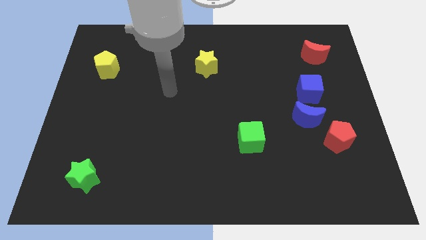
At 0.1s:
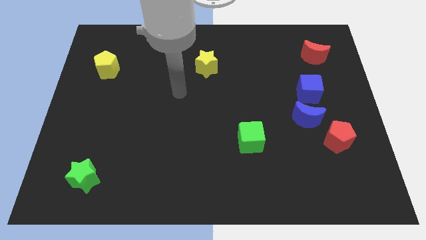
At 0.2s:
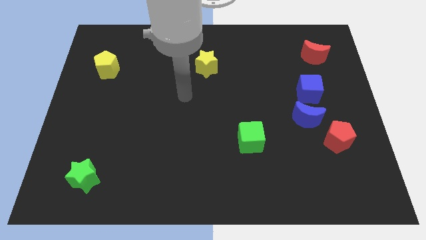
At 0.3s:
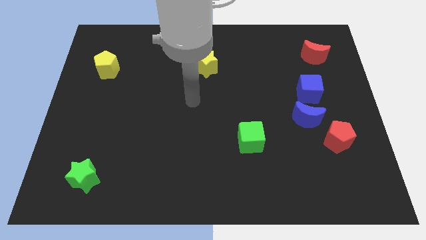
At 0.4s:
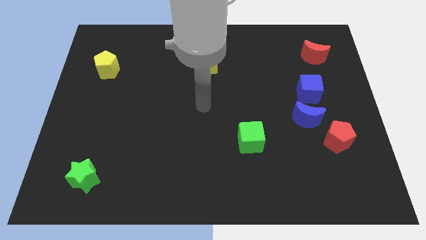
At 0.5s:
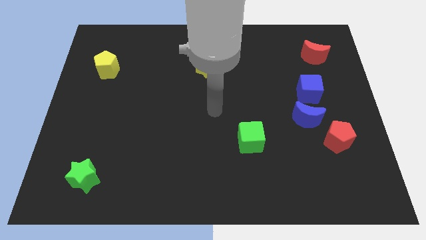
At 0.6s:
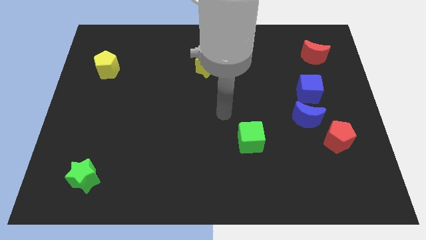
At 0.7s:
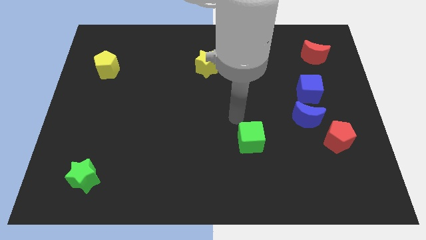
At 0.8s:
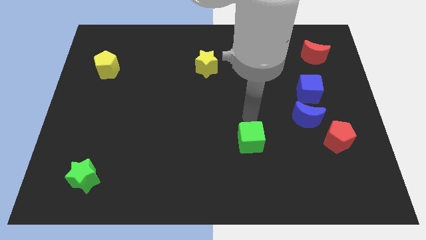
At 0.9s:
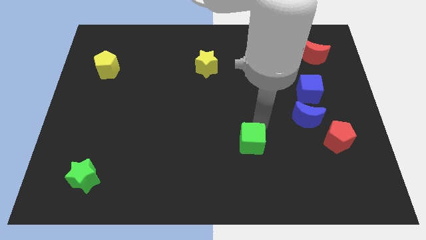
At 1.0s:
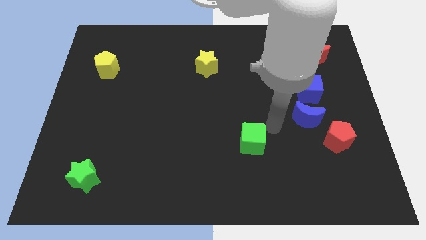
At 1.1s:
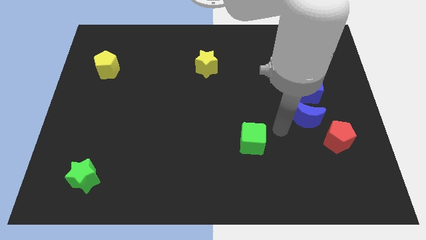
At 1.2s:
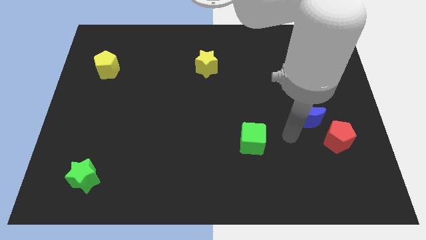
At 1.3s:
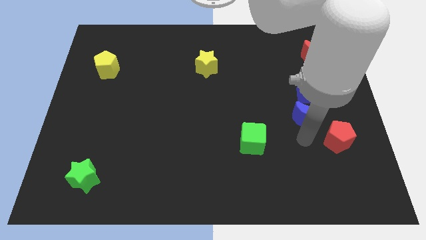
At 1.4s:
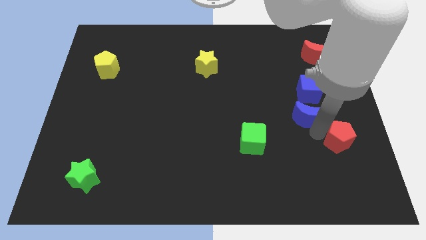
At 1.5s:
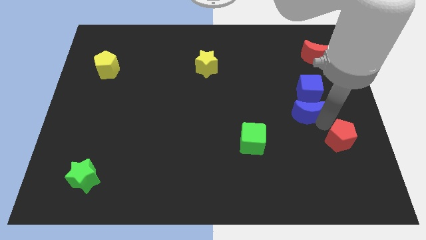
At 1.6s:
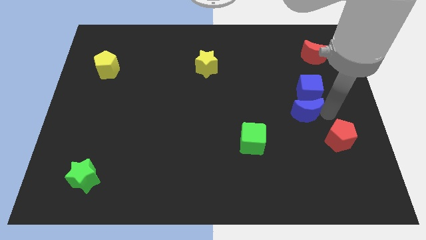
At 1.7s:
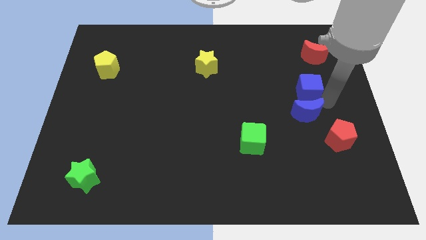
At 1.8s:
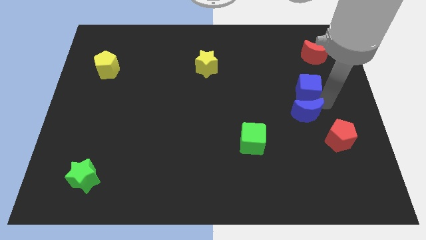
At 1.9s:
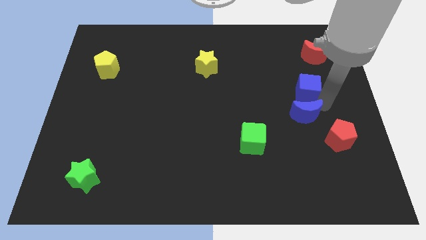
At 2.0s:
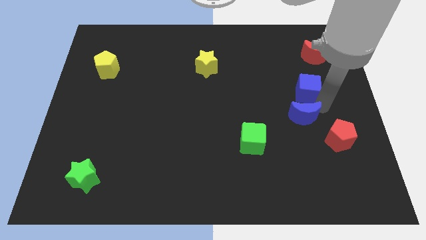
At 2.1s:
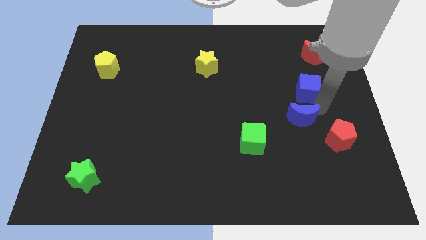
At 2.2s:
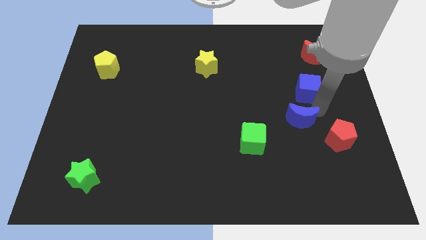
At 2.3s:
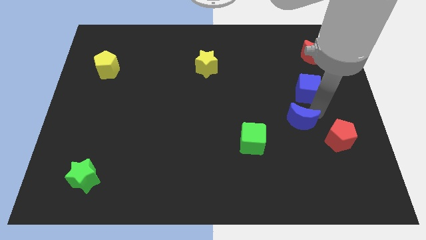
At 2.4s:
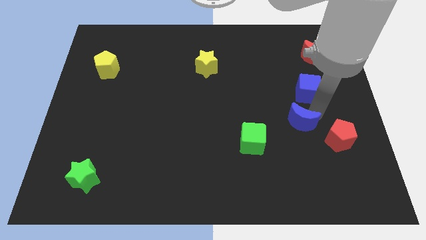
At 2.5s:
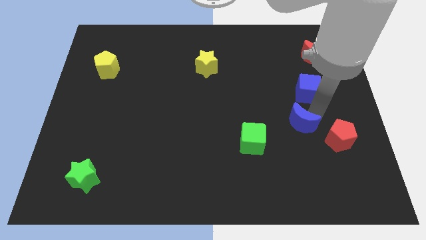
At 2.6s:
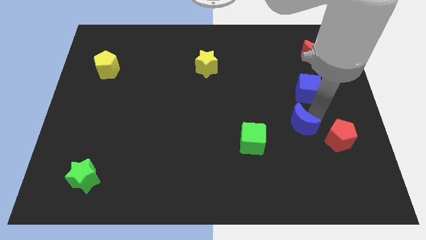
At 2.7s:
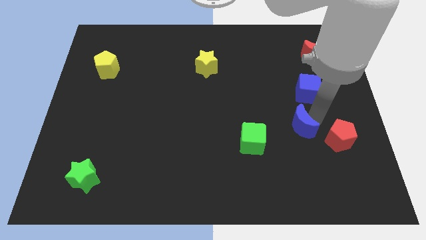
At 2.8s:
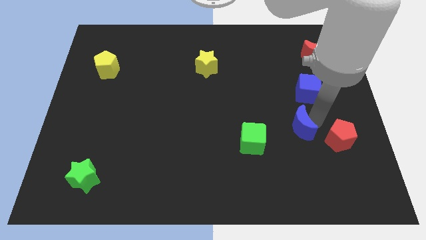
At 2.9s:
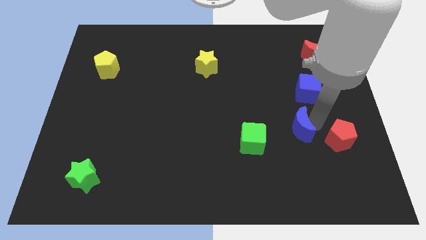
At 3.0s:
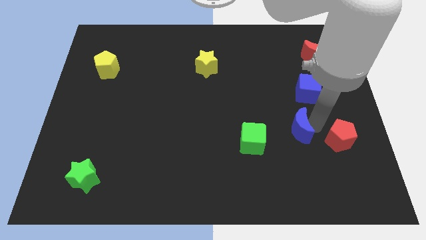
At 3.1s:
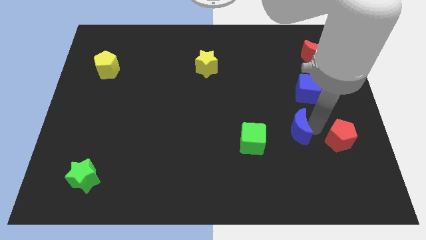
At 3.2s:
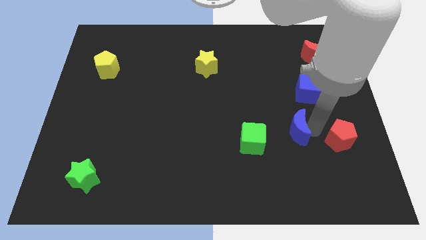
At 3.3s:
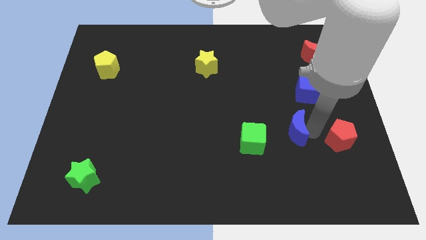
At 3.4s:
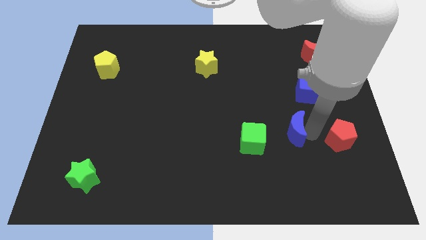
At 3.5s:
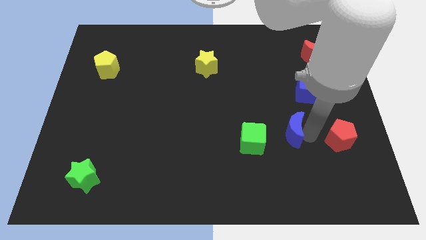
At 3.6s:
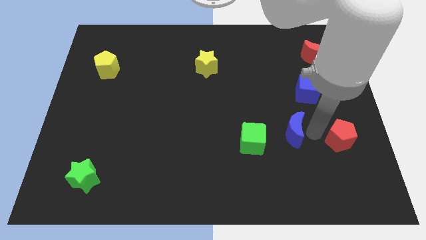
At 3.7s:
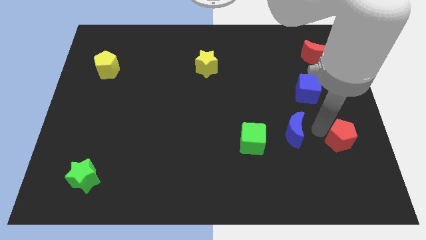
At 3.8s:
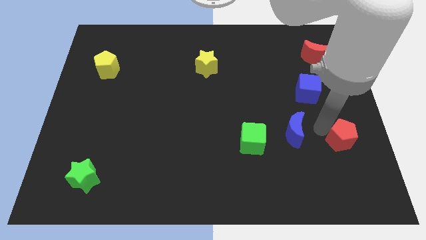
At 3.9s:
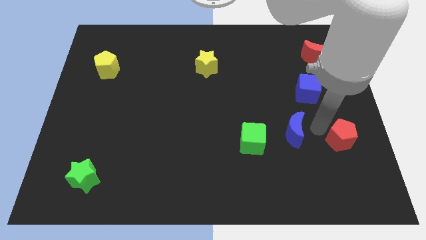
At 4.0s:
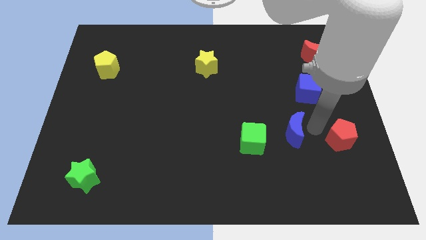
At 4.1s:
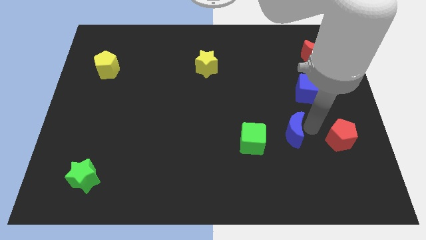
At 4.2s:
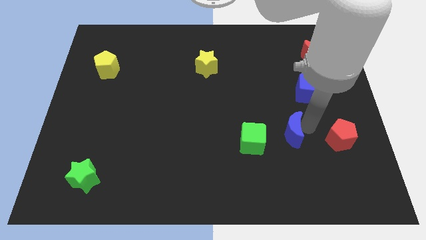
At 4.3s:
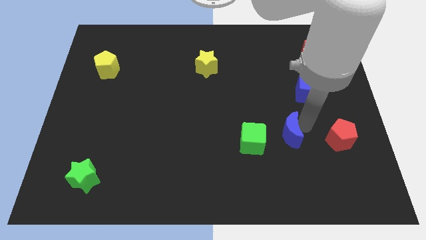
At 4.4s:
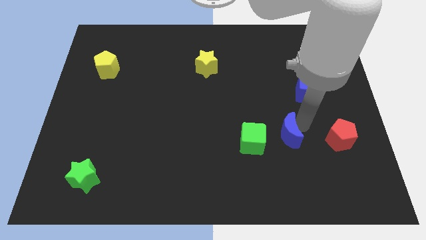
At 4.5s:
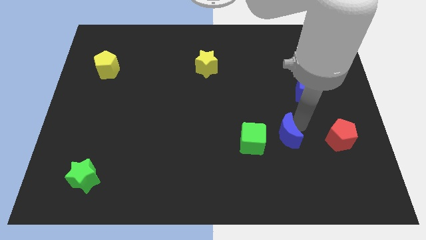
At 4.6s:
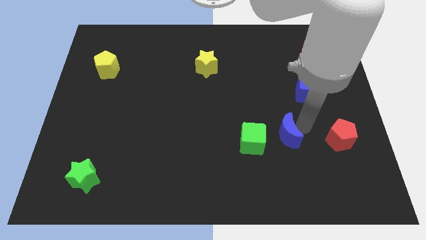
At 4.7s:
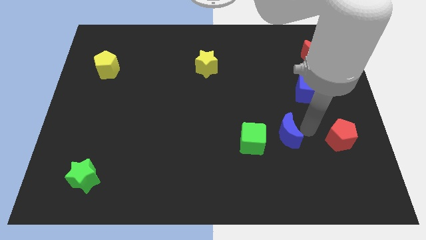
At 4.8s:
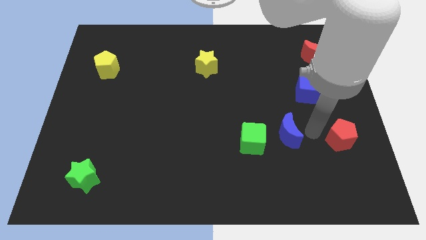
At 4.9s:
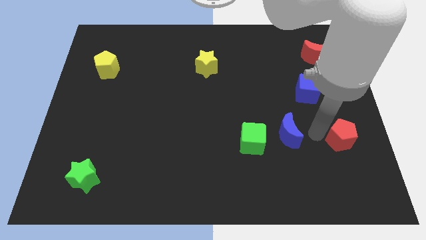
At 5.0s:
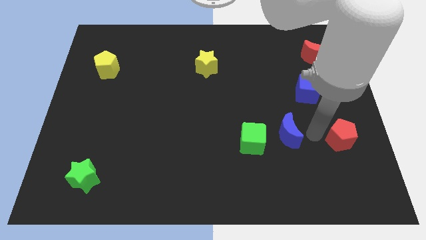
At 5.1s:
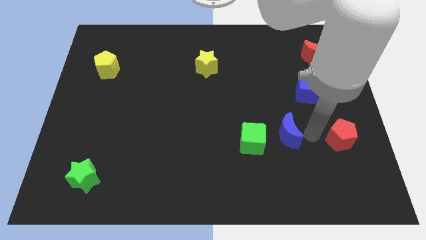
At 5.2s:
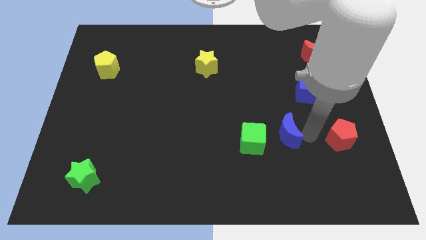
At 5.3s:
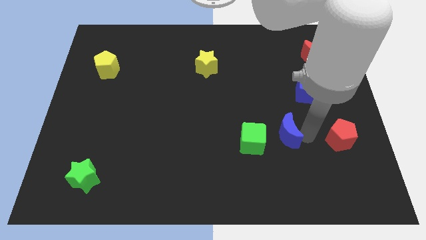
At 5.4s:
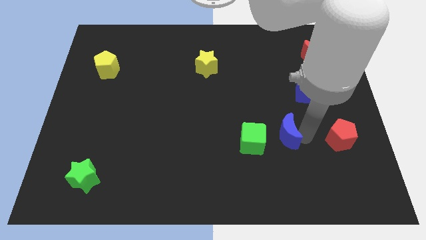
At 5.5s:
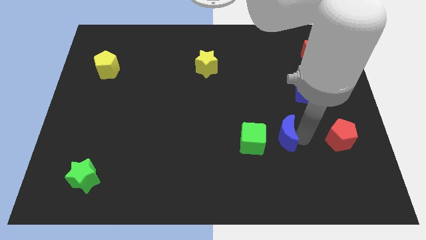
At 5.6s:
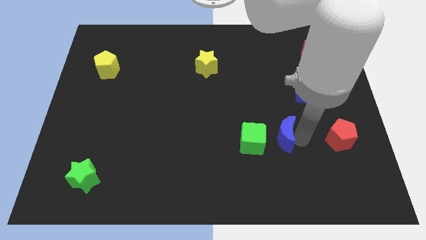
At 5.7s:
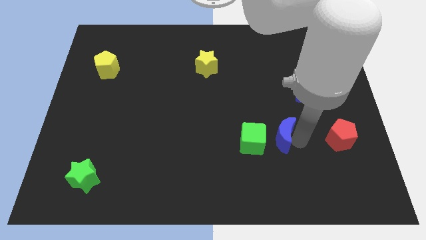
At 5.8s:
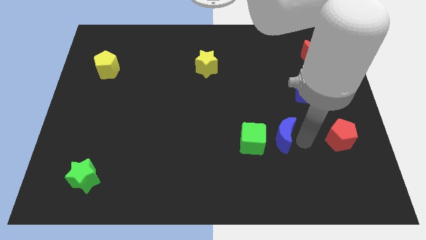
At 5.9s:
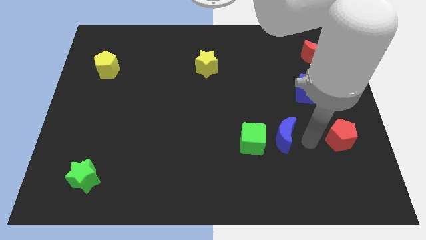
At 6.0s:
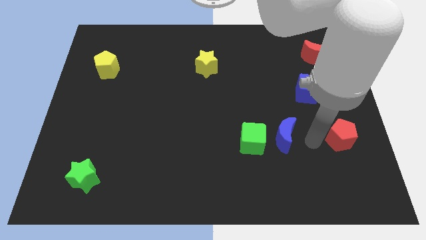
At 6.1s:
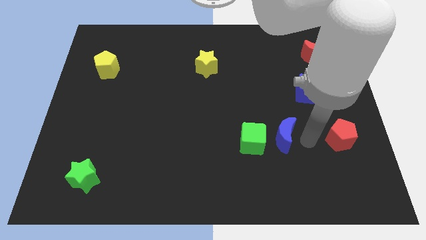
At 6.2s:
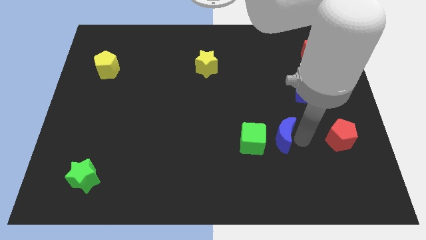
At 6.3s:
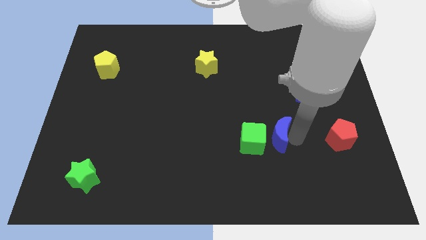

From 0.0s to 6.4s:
slide the blue moon towards the green cube

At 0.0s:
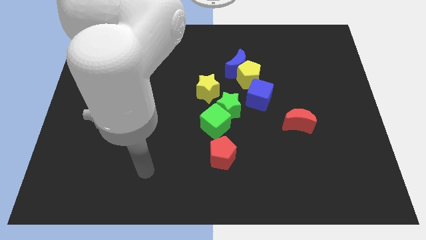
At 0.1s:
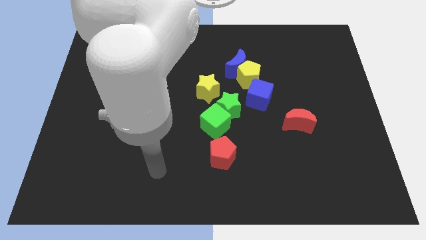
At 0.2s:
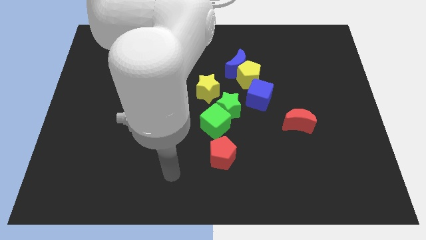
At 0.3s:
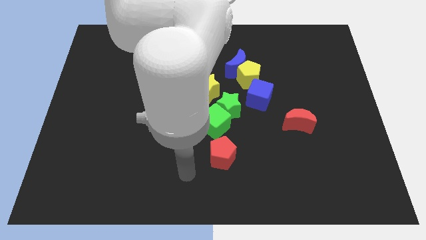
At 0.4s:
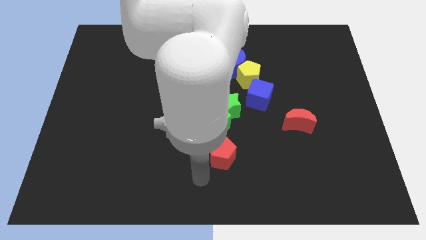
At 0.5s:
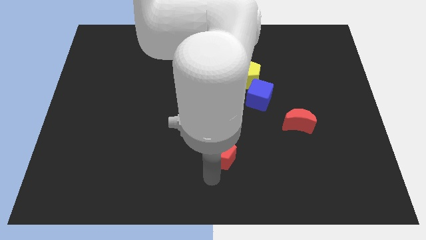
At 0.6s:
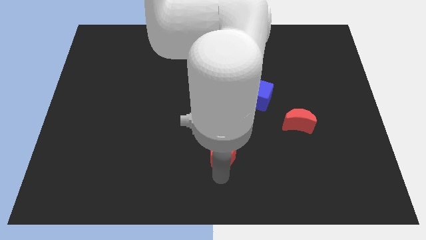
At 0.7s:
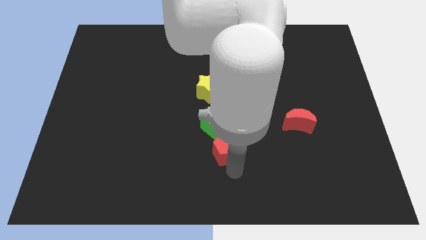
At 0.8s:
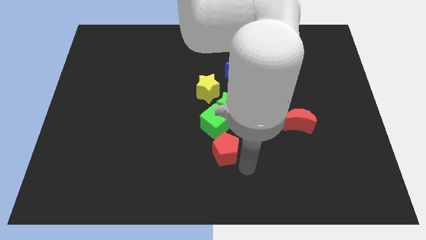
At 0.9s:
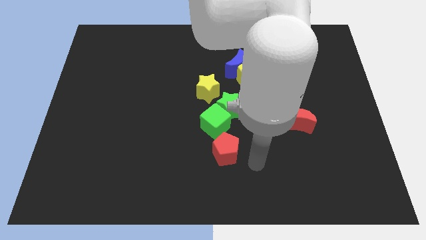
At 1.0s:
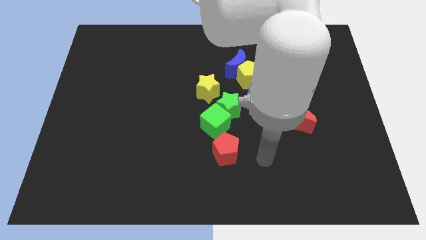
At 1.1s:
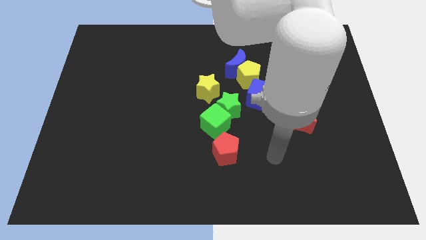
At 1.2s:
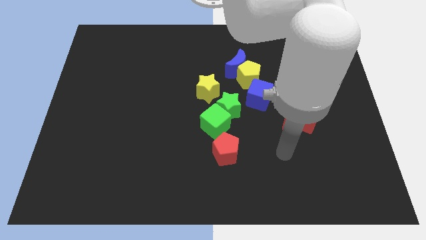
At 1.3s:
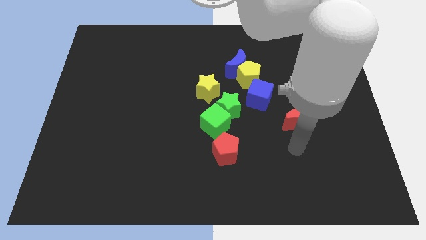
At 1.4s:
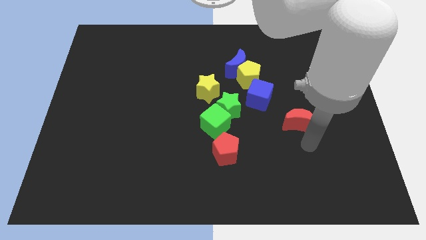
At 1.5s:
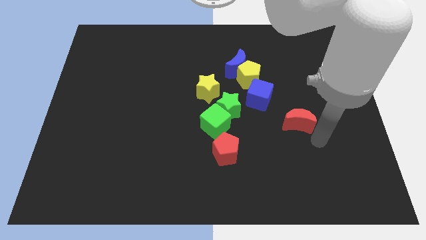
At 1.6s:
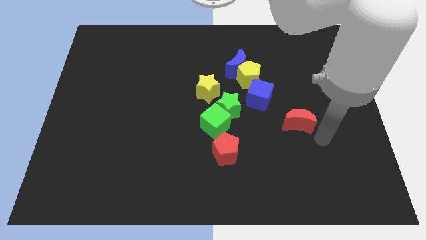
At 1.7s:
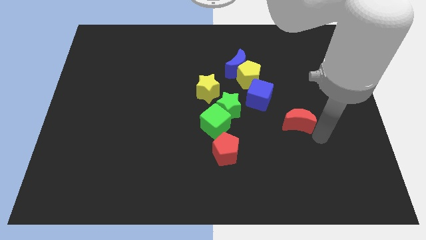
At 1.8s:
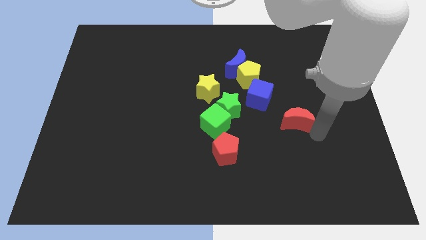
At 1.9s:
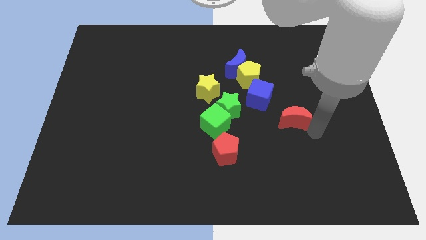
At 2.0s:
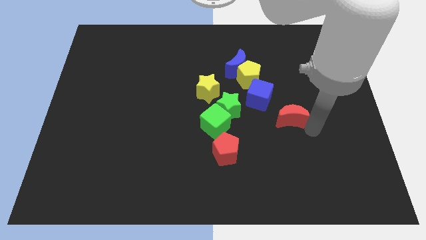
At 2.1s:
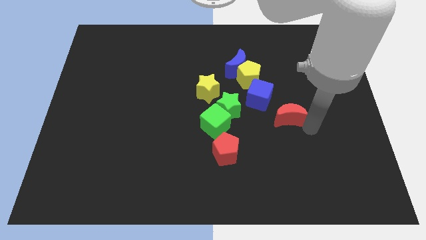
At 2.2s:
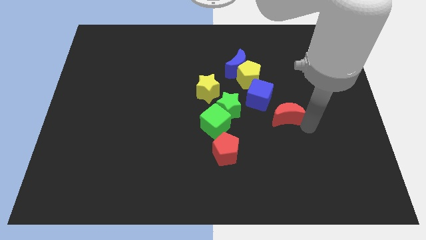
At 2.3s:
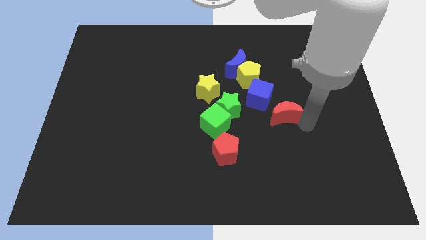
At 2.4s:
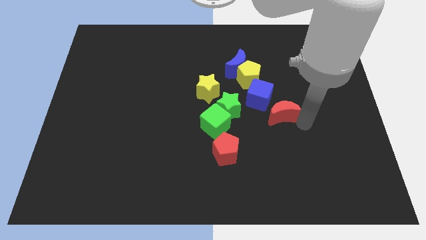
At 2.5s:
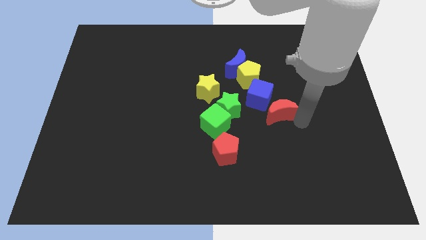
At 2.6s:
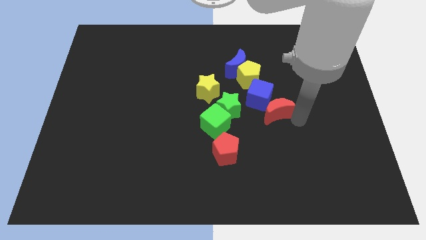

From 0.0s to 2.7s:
move the red moon towards the blue cube
